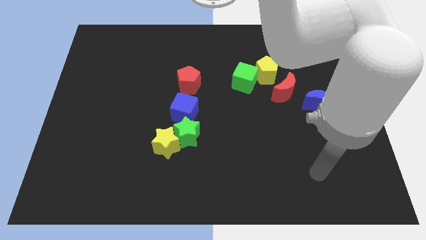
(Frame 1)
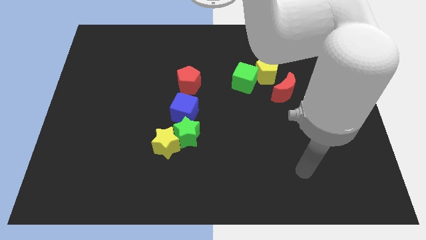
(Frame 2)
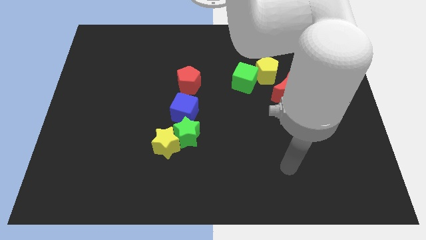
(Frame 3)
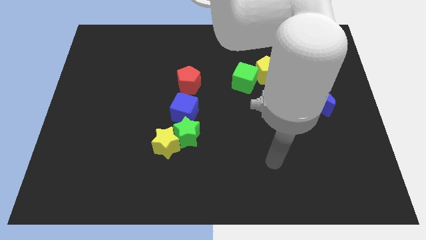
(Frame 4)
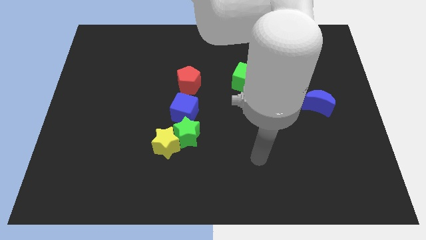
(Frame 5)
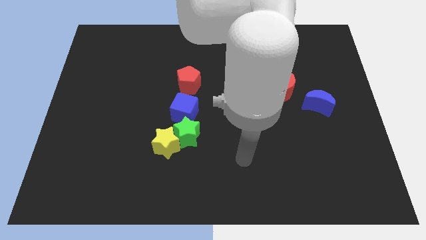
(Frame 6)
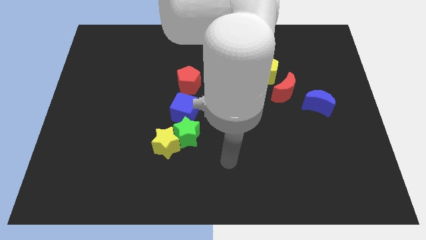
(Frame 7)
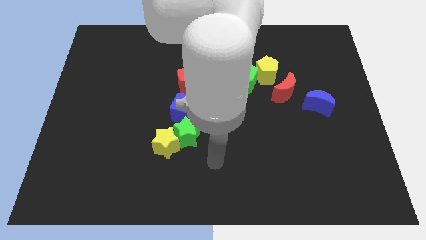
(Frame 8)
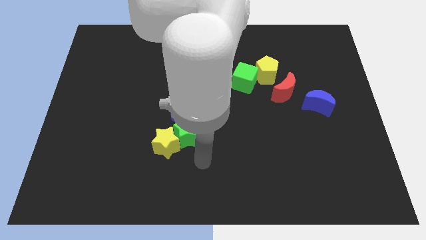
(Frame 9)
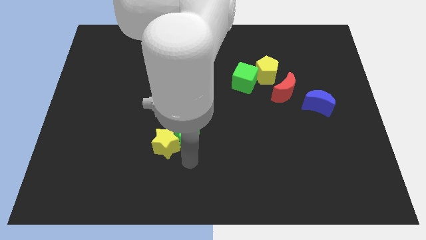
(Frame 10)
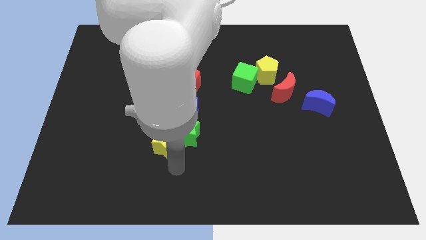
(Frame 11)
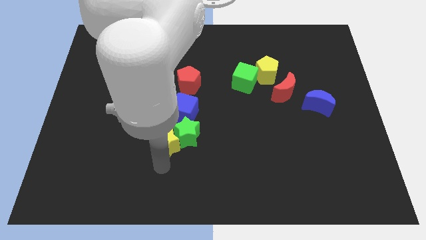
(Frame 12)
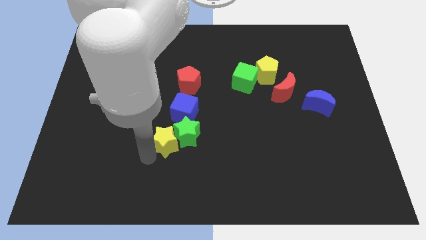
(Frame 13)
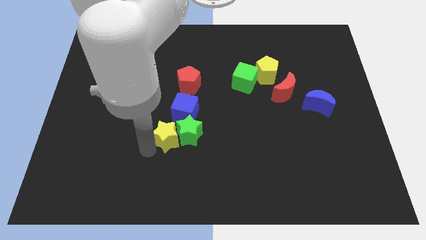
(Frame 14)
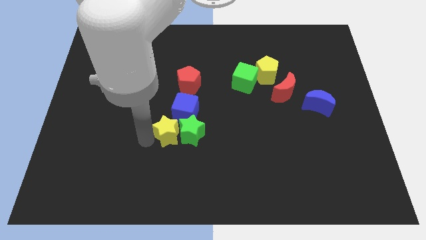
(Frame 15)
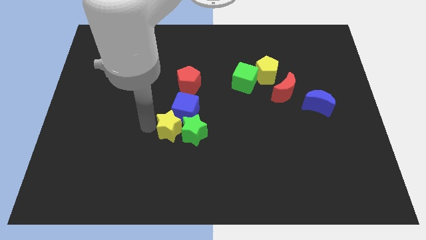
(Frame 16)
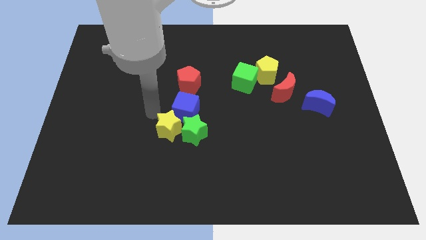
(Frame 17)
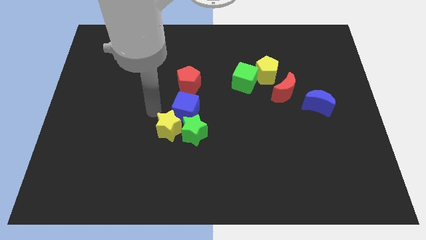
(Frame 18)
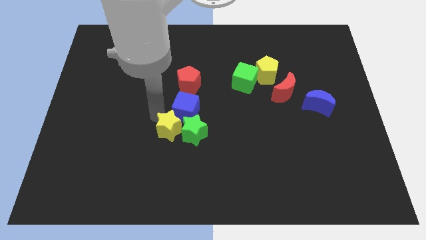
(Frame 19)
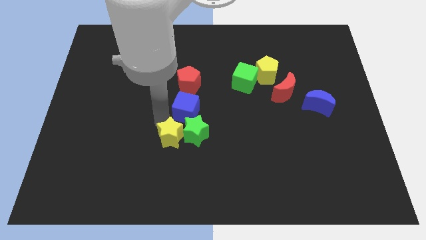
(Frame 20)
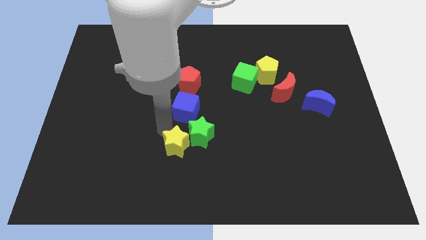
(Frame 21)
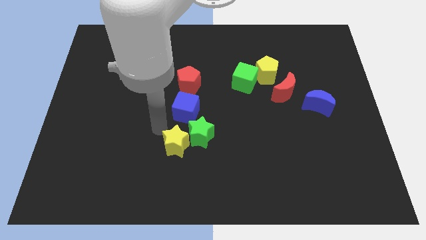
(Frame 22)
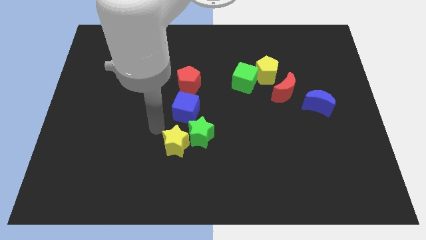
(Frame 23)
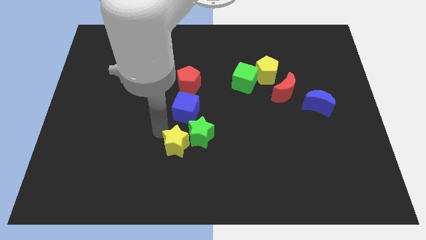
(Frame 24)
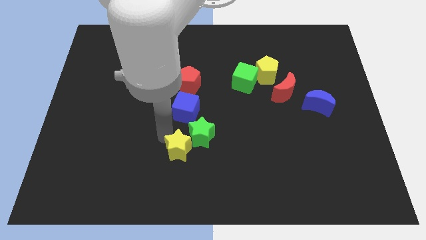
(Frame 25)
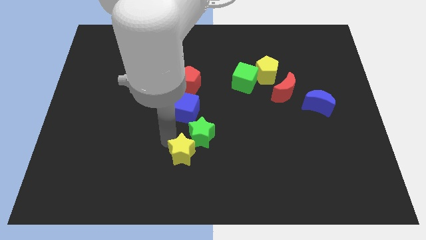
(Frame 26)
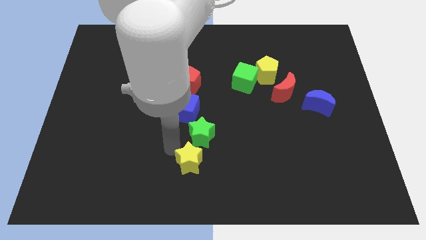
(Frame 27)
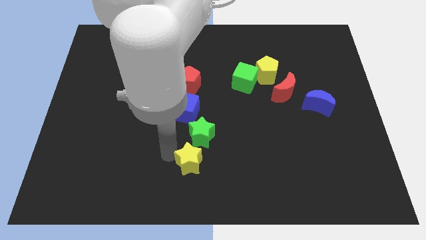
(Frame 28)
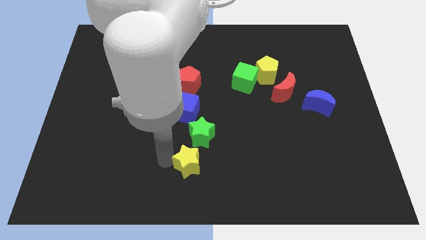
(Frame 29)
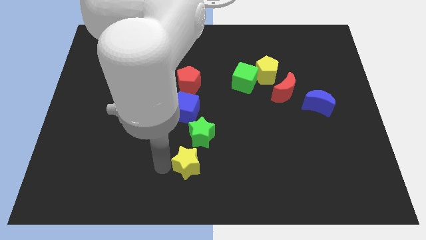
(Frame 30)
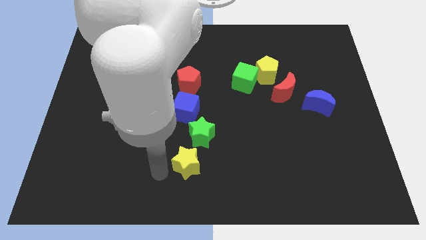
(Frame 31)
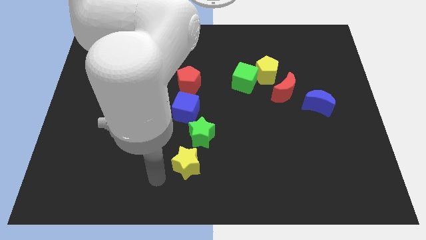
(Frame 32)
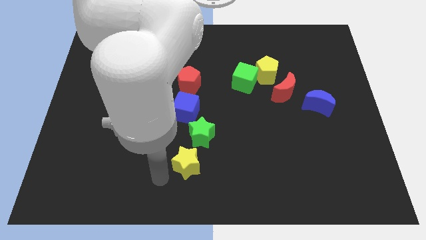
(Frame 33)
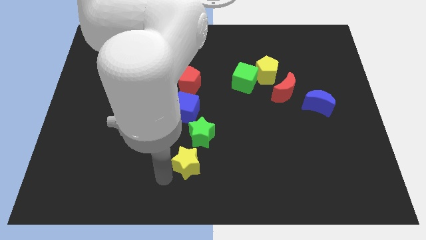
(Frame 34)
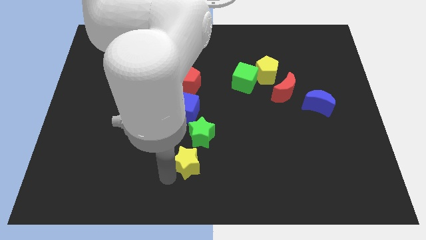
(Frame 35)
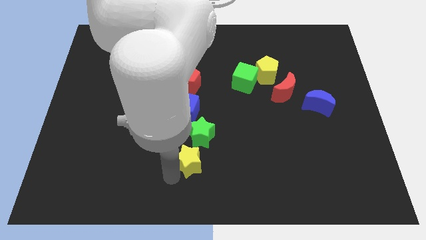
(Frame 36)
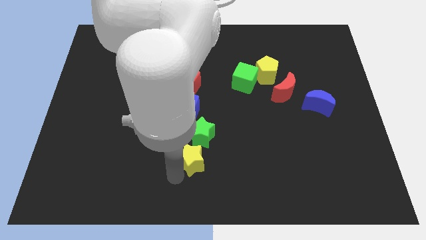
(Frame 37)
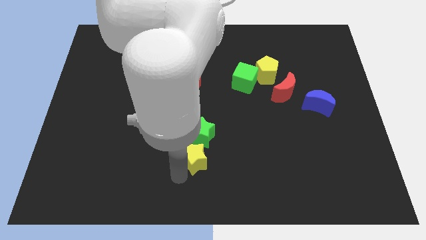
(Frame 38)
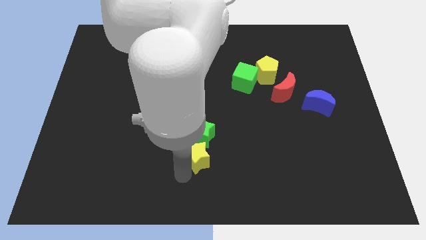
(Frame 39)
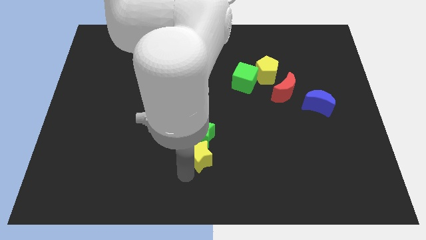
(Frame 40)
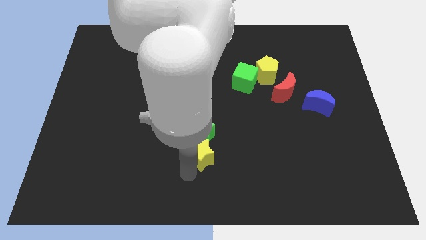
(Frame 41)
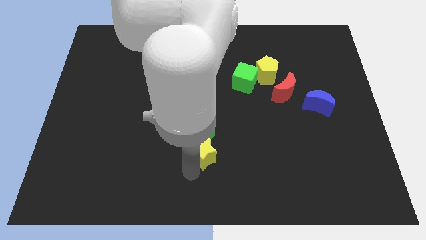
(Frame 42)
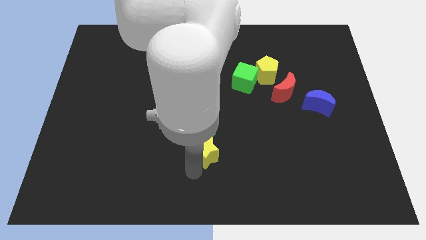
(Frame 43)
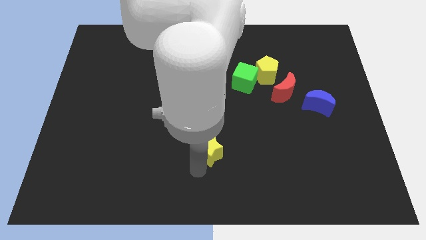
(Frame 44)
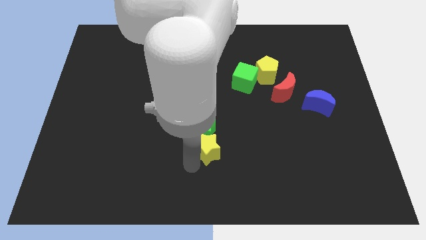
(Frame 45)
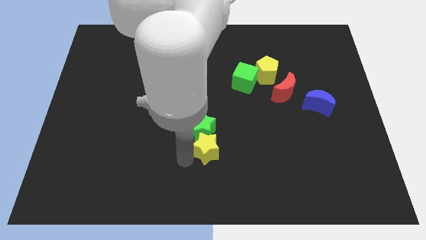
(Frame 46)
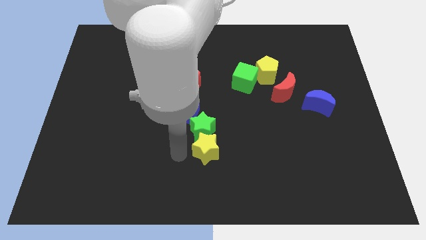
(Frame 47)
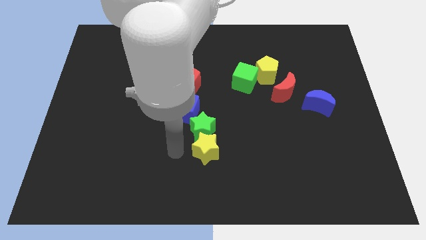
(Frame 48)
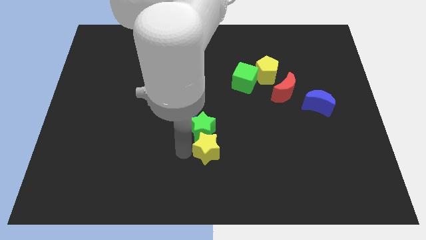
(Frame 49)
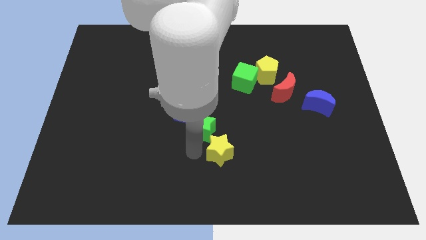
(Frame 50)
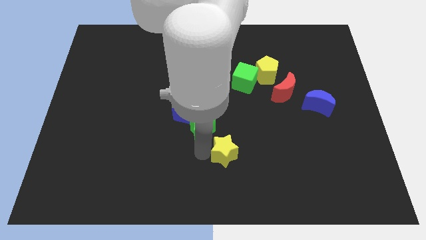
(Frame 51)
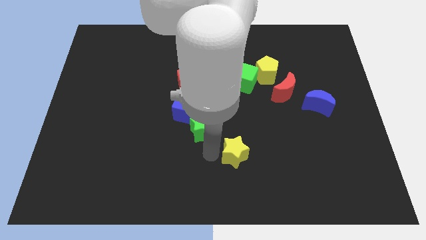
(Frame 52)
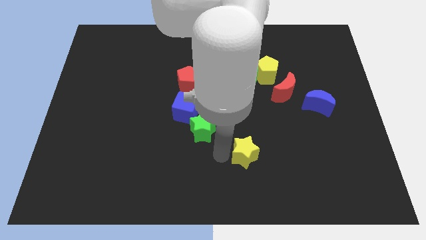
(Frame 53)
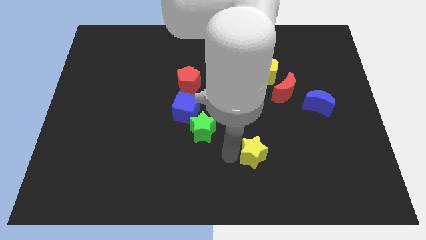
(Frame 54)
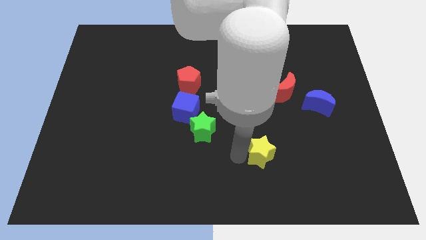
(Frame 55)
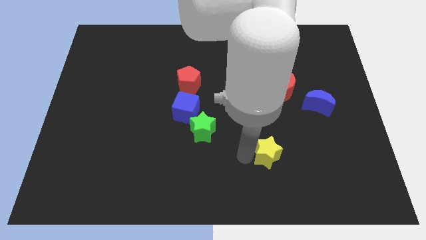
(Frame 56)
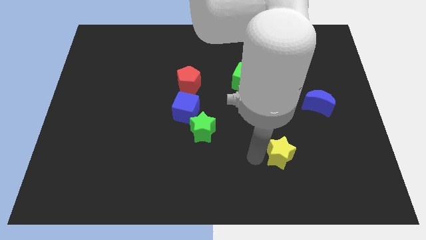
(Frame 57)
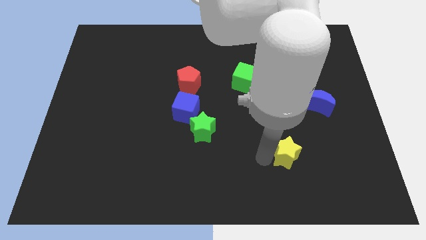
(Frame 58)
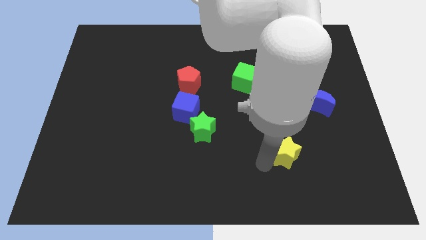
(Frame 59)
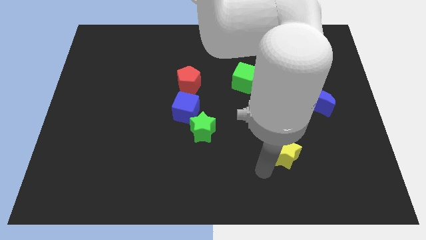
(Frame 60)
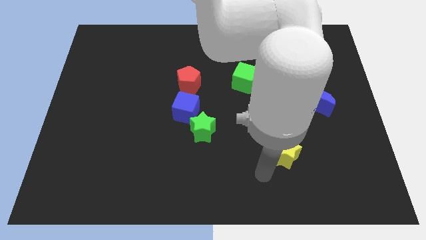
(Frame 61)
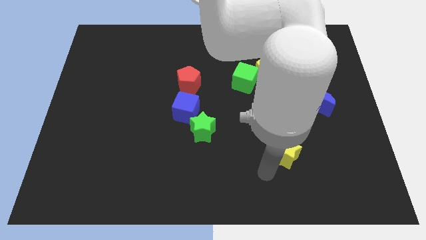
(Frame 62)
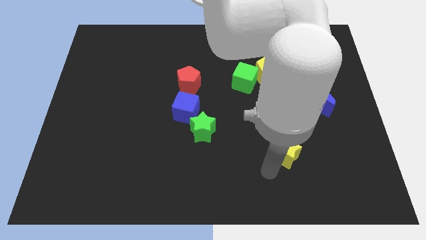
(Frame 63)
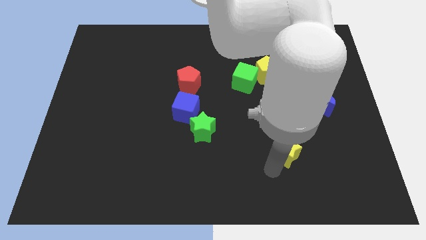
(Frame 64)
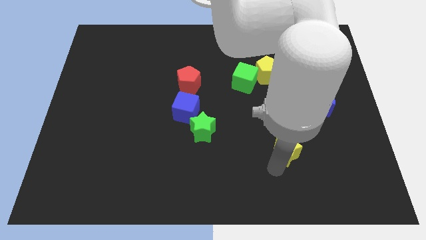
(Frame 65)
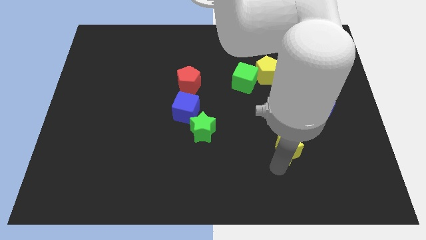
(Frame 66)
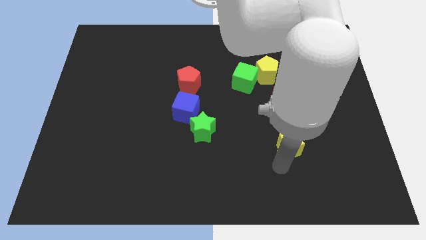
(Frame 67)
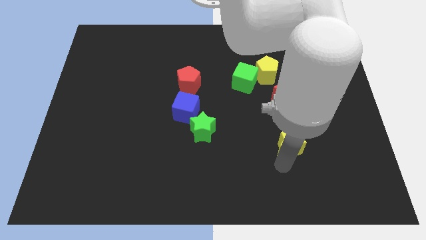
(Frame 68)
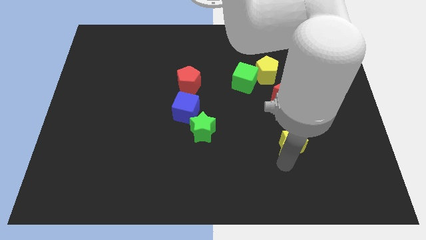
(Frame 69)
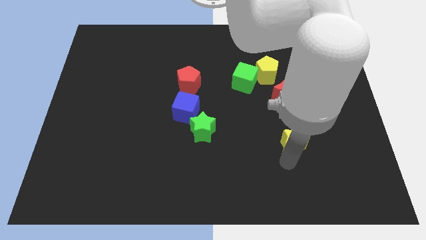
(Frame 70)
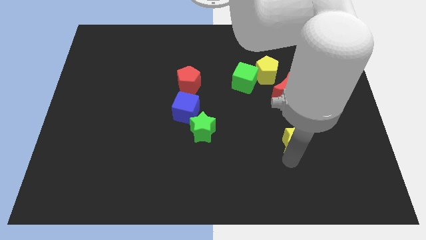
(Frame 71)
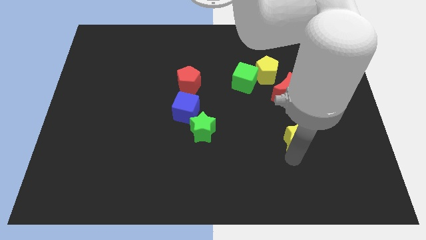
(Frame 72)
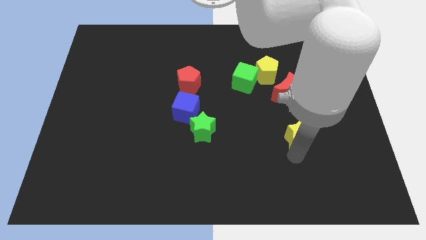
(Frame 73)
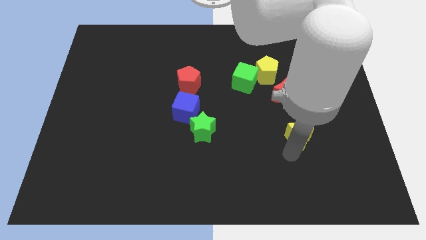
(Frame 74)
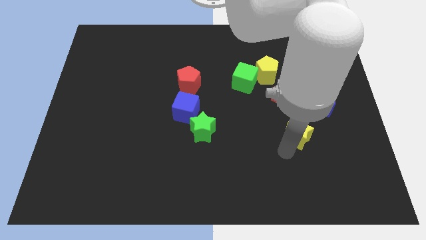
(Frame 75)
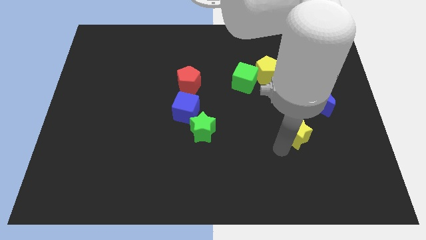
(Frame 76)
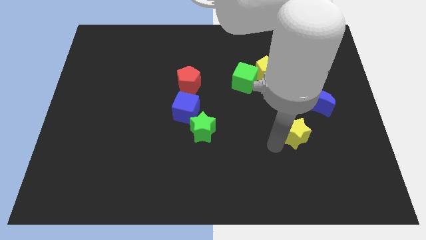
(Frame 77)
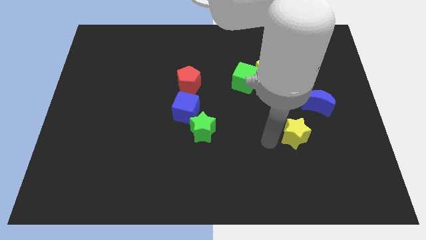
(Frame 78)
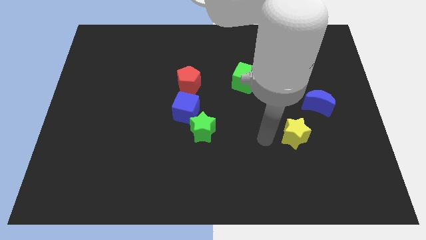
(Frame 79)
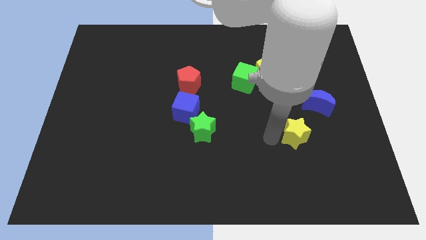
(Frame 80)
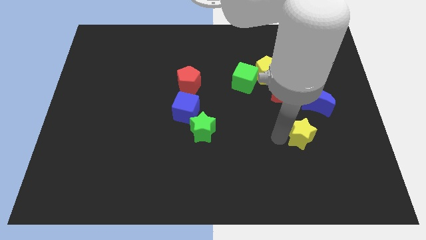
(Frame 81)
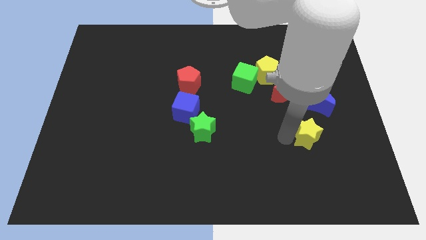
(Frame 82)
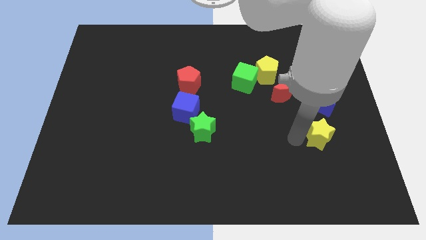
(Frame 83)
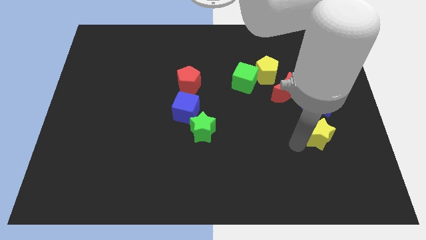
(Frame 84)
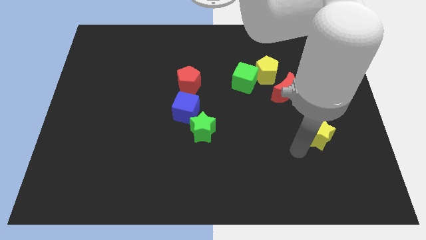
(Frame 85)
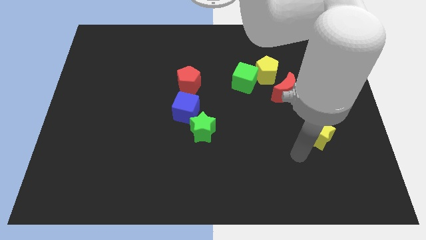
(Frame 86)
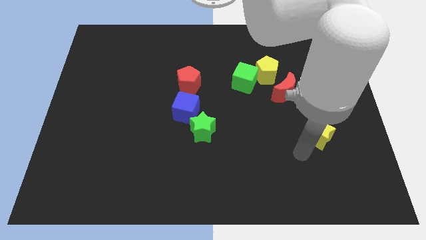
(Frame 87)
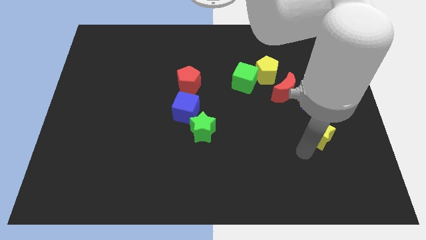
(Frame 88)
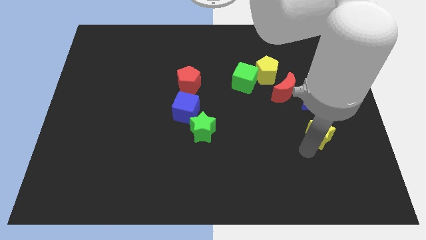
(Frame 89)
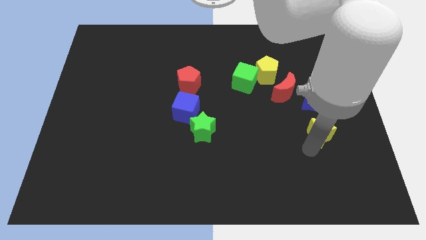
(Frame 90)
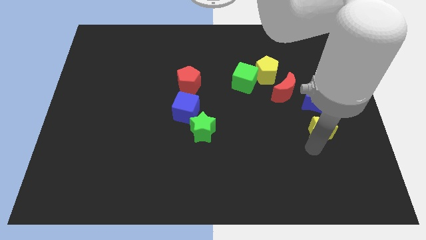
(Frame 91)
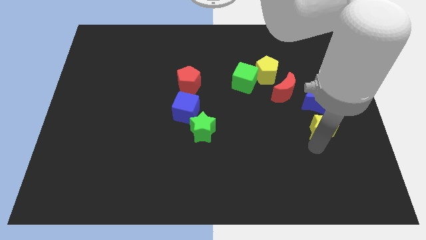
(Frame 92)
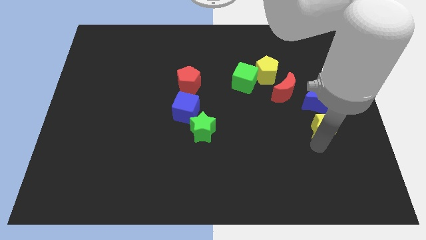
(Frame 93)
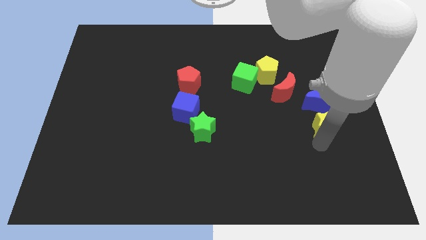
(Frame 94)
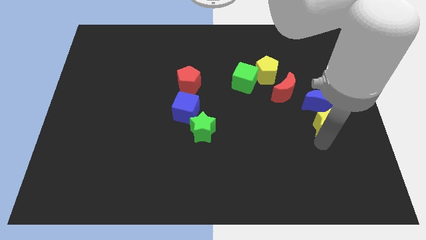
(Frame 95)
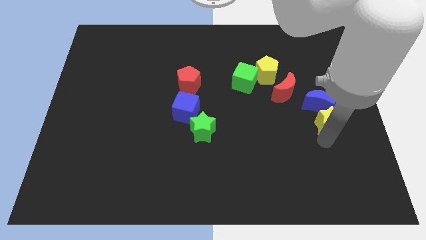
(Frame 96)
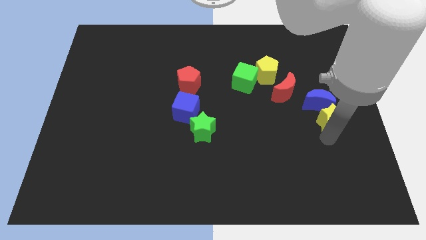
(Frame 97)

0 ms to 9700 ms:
slide the yellow star to the right side
